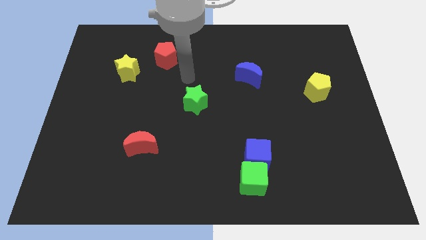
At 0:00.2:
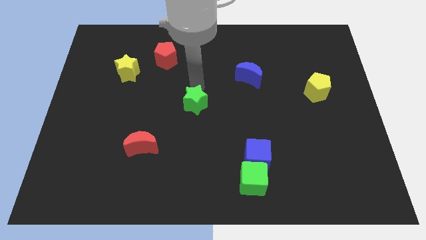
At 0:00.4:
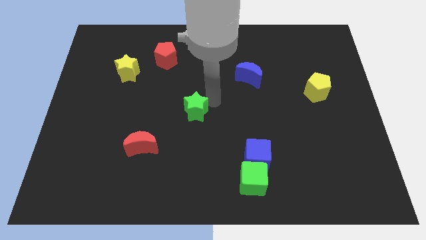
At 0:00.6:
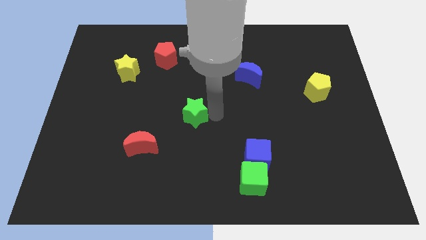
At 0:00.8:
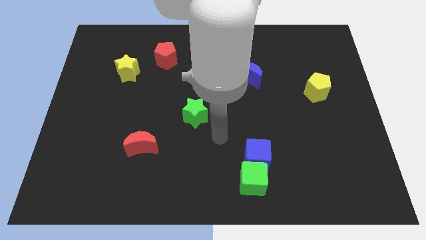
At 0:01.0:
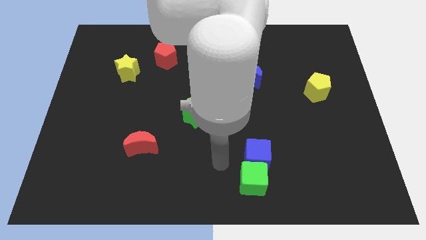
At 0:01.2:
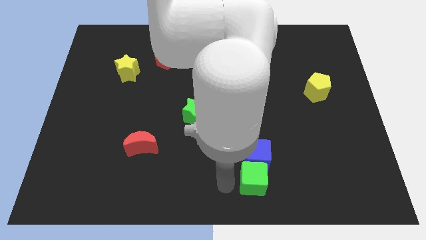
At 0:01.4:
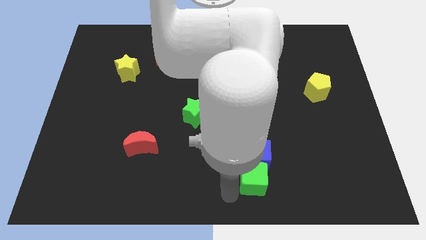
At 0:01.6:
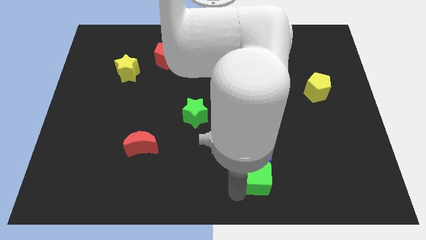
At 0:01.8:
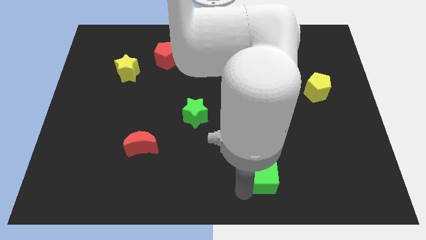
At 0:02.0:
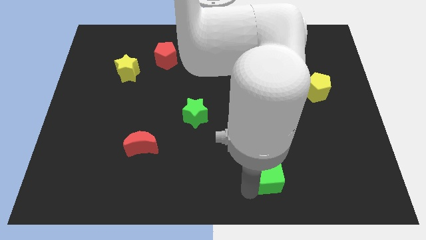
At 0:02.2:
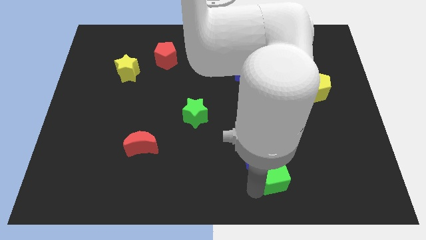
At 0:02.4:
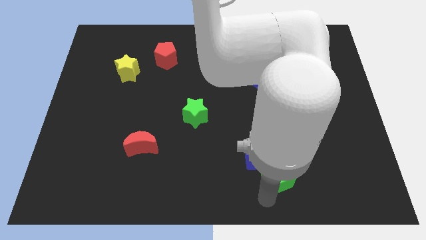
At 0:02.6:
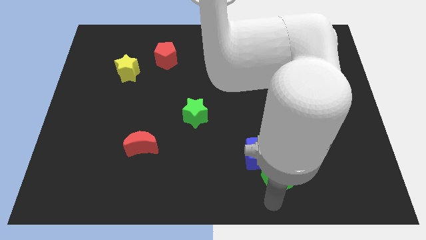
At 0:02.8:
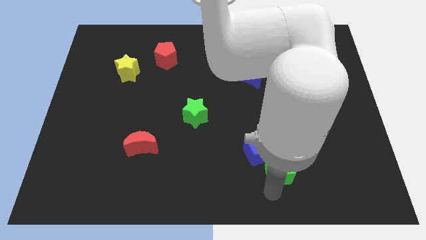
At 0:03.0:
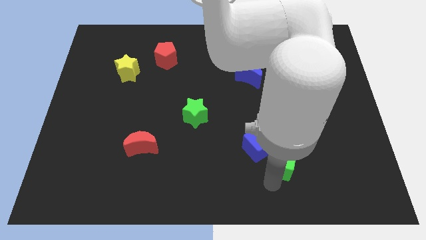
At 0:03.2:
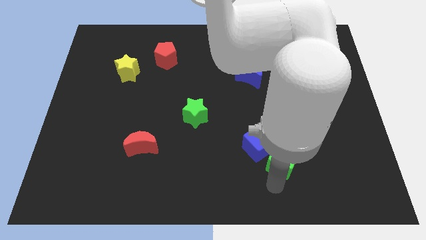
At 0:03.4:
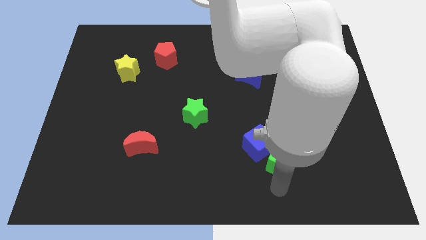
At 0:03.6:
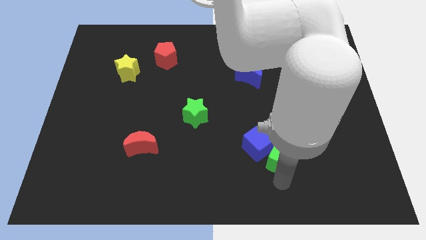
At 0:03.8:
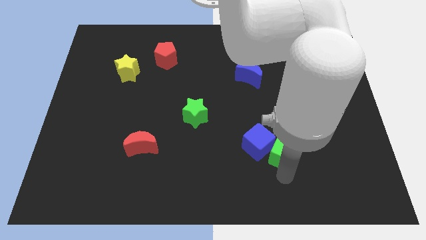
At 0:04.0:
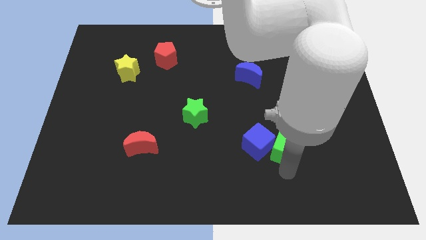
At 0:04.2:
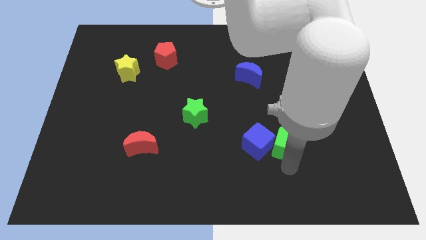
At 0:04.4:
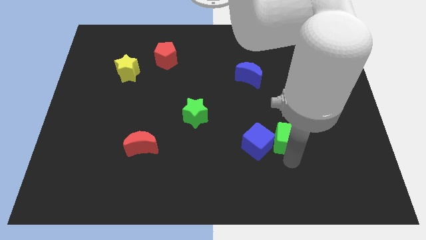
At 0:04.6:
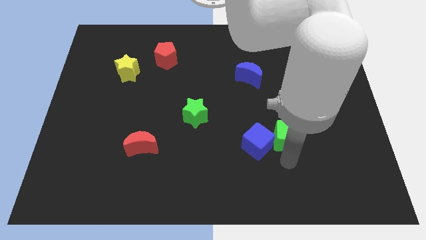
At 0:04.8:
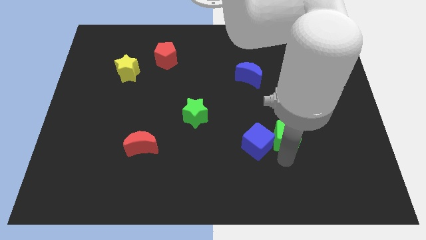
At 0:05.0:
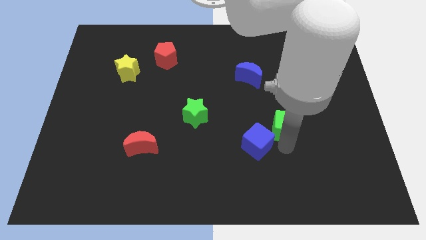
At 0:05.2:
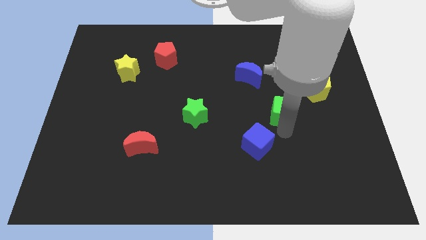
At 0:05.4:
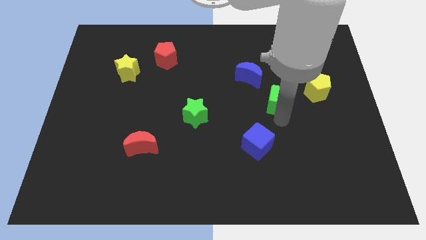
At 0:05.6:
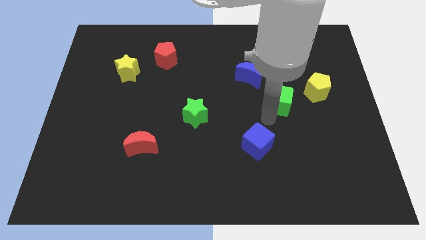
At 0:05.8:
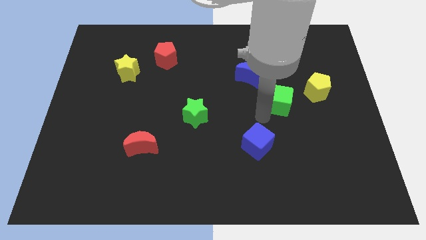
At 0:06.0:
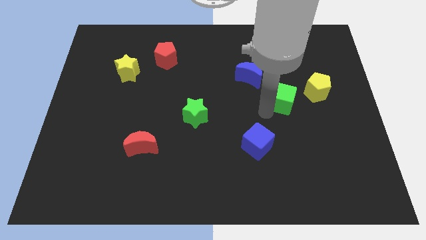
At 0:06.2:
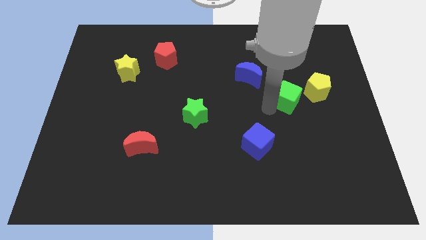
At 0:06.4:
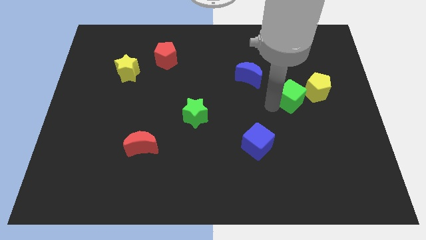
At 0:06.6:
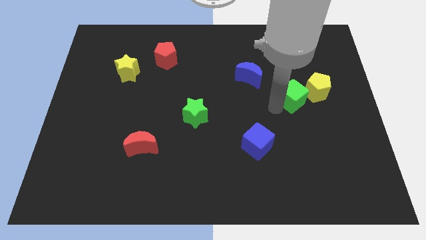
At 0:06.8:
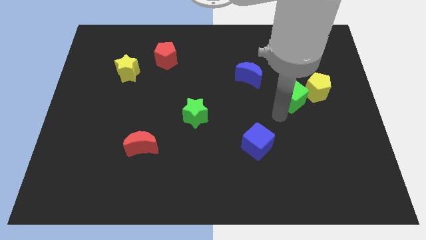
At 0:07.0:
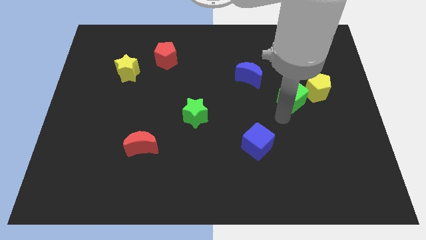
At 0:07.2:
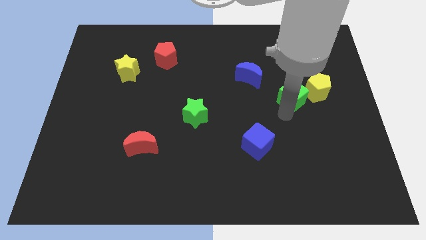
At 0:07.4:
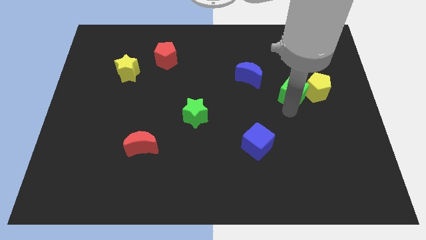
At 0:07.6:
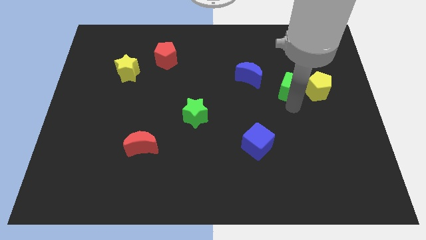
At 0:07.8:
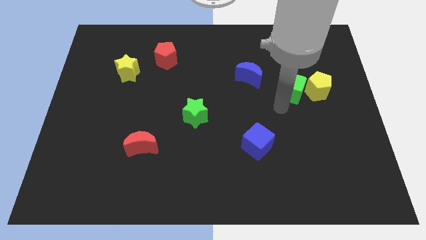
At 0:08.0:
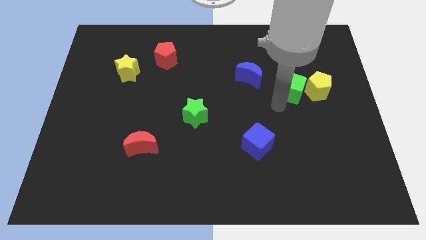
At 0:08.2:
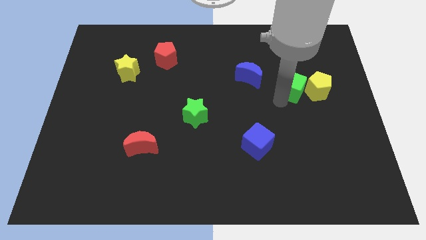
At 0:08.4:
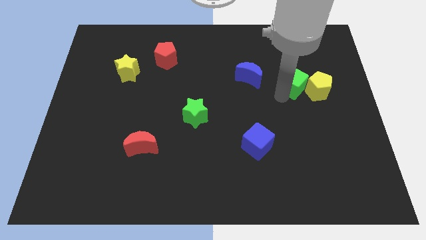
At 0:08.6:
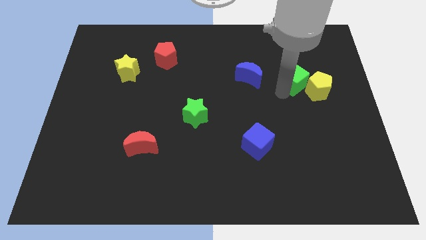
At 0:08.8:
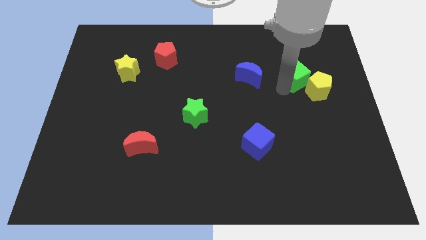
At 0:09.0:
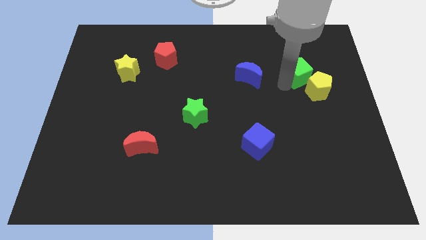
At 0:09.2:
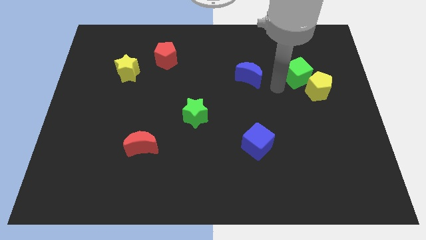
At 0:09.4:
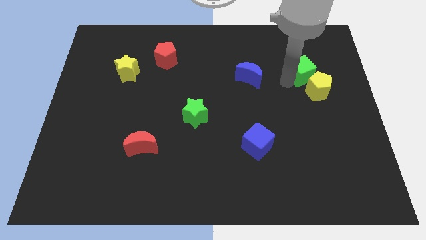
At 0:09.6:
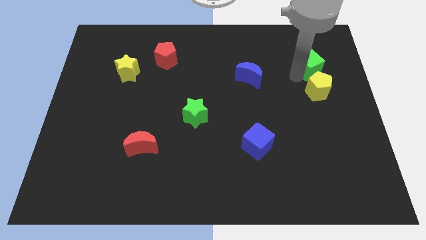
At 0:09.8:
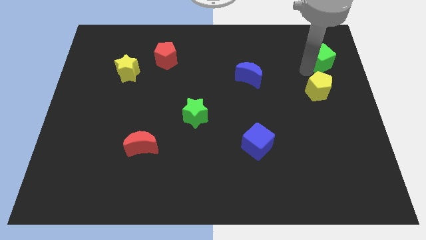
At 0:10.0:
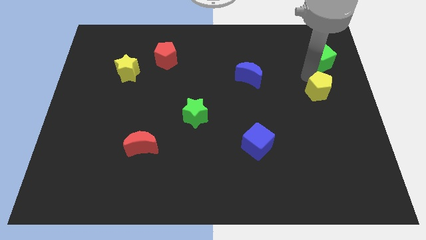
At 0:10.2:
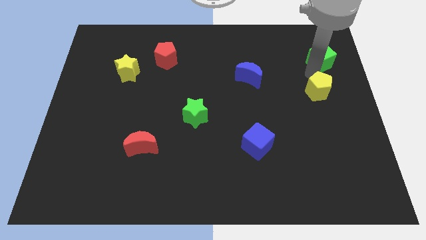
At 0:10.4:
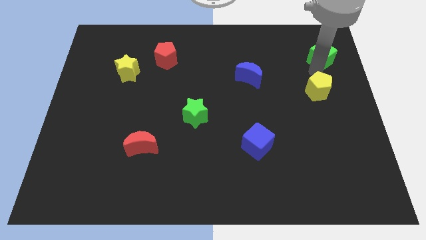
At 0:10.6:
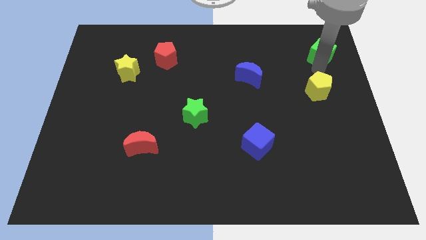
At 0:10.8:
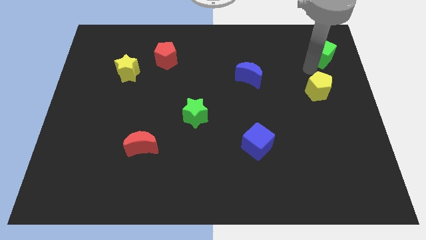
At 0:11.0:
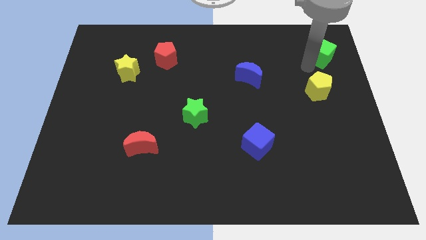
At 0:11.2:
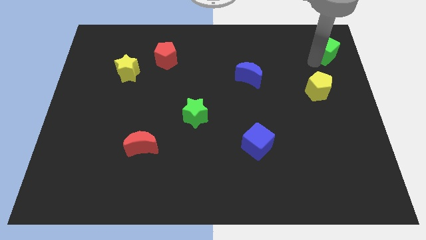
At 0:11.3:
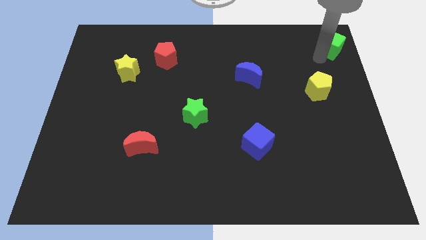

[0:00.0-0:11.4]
put the green cube to the top right
